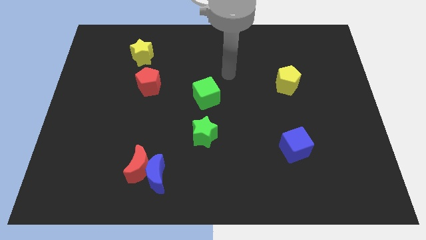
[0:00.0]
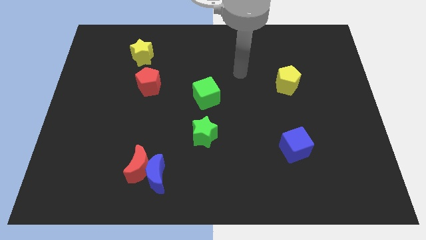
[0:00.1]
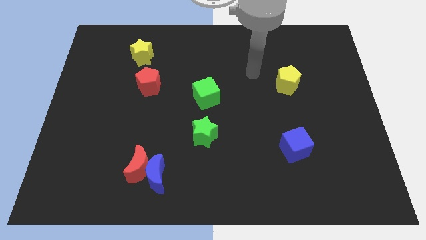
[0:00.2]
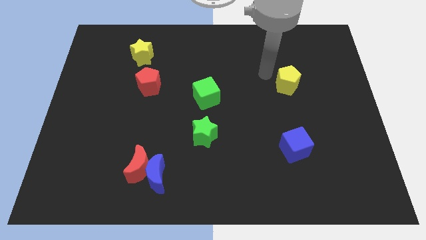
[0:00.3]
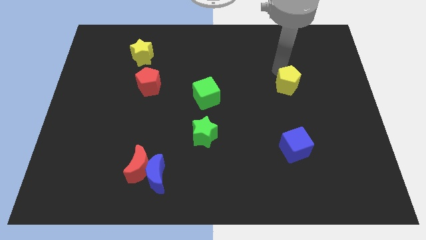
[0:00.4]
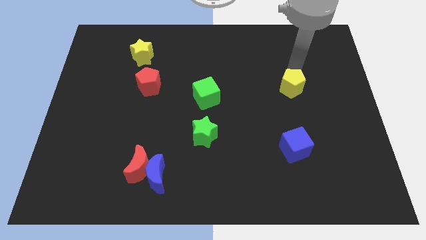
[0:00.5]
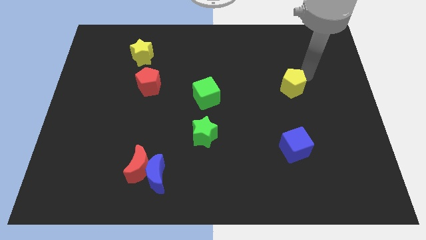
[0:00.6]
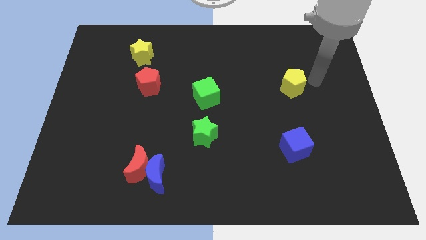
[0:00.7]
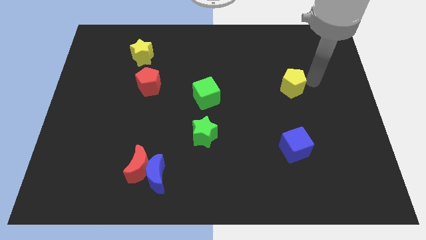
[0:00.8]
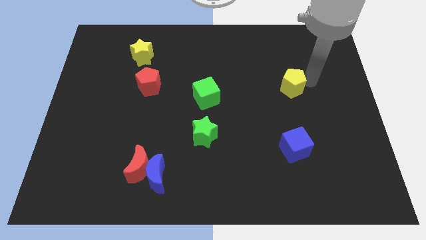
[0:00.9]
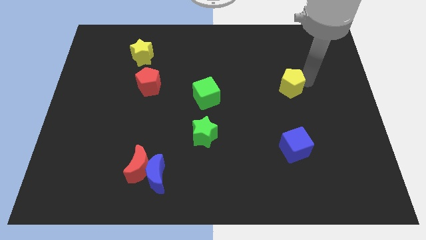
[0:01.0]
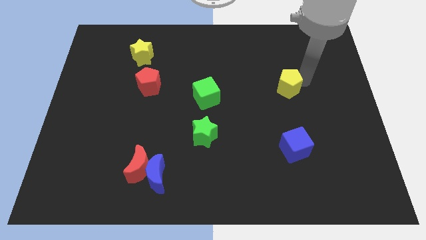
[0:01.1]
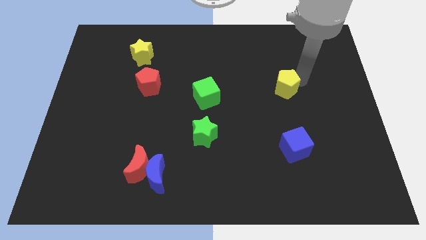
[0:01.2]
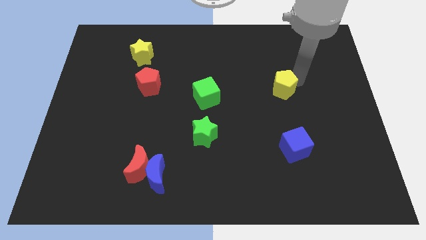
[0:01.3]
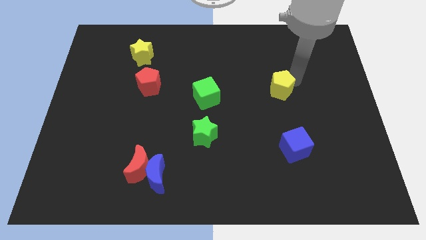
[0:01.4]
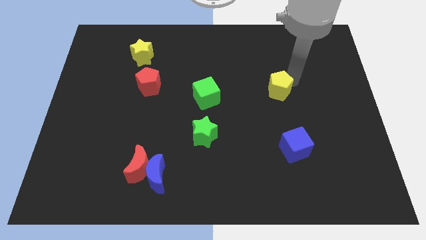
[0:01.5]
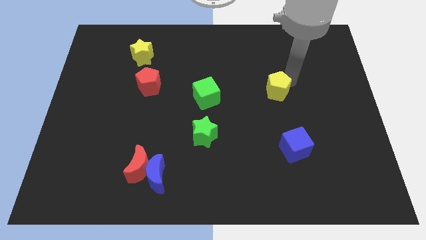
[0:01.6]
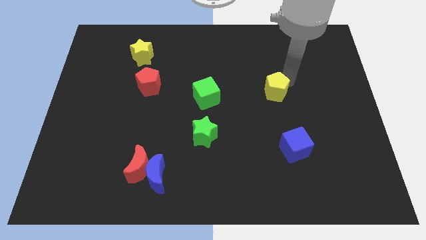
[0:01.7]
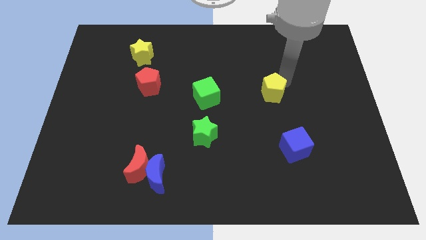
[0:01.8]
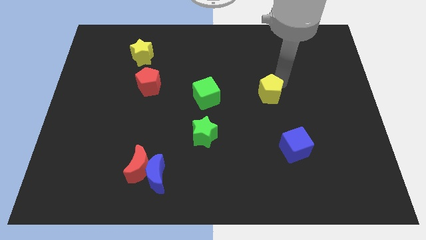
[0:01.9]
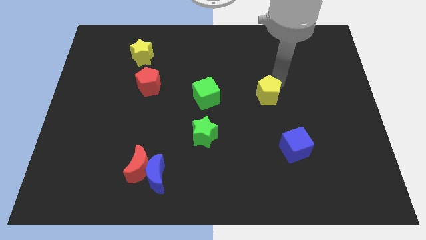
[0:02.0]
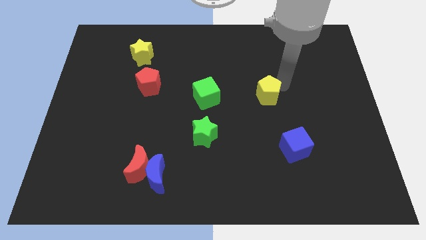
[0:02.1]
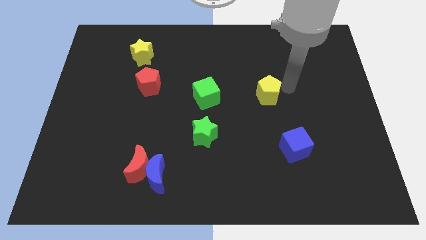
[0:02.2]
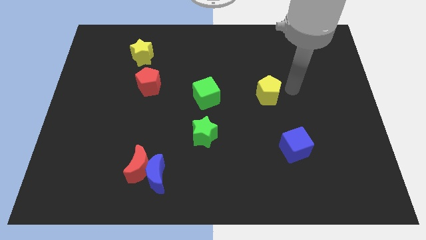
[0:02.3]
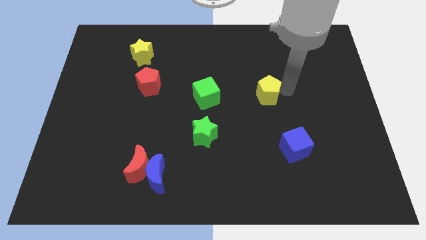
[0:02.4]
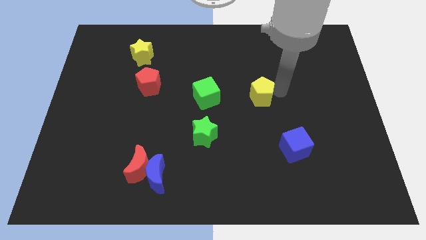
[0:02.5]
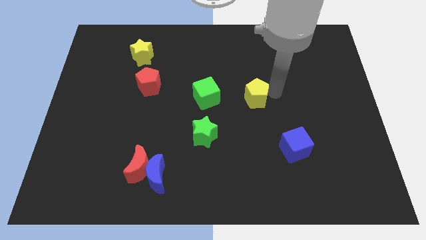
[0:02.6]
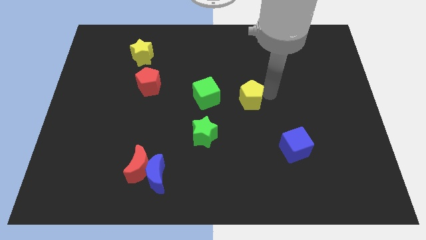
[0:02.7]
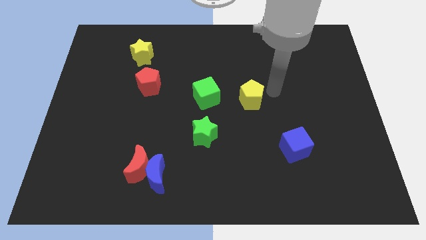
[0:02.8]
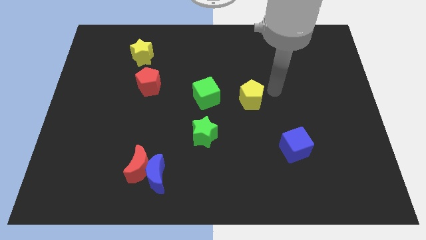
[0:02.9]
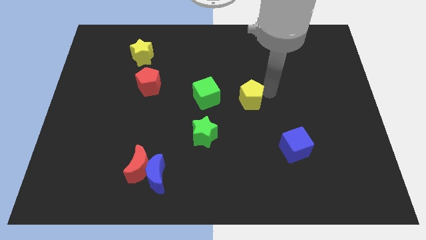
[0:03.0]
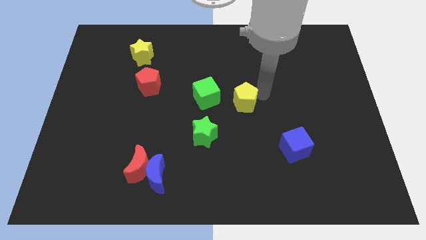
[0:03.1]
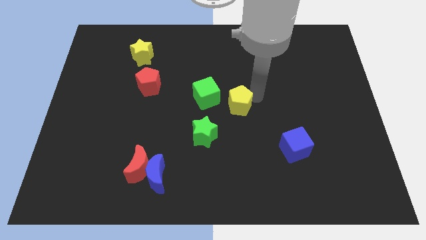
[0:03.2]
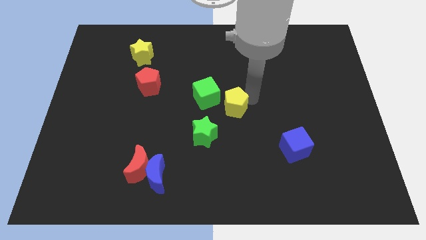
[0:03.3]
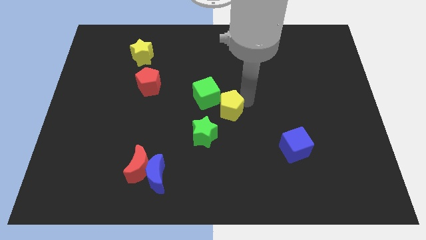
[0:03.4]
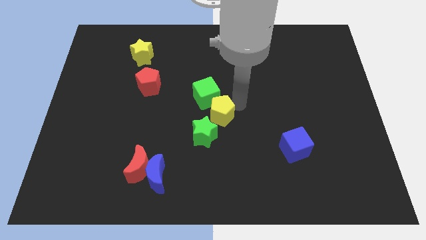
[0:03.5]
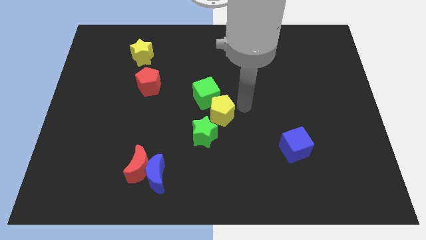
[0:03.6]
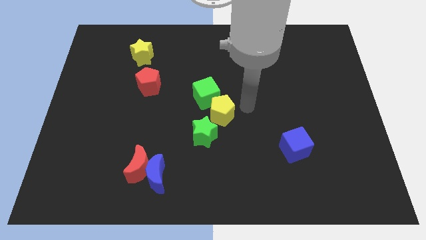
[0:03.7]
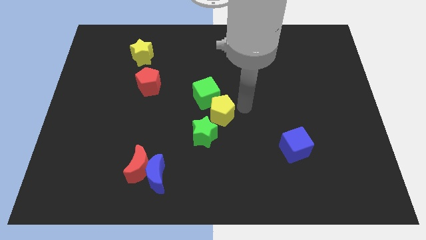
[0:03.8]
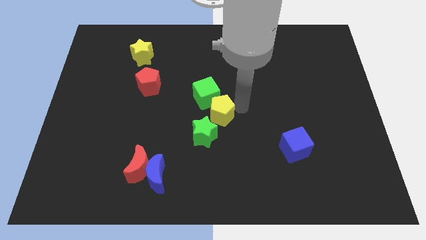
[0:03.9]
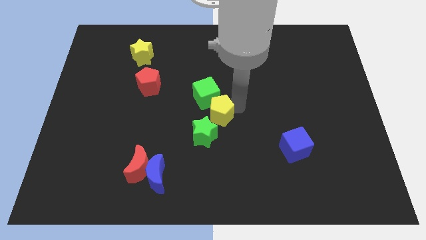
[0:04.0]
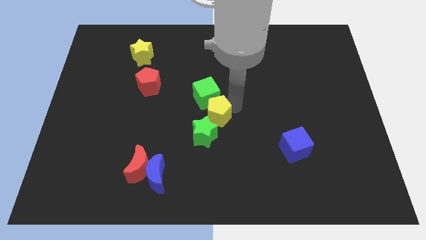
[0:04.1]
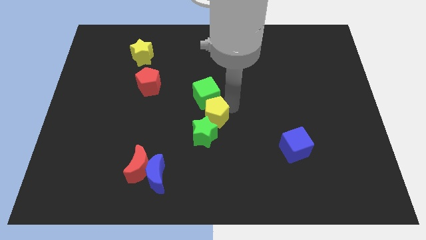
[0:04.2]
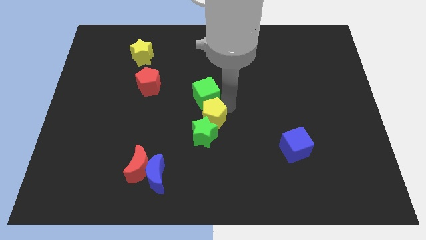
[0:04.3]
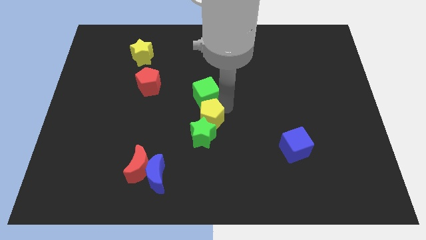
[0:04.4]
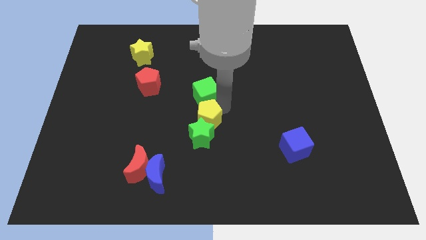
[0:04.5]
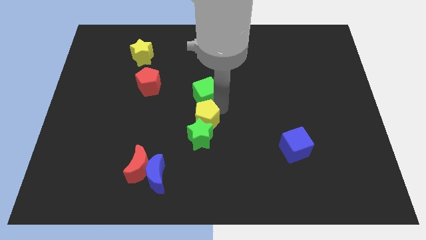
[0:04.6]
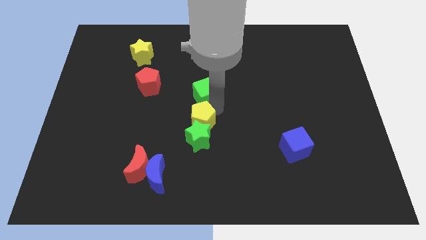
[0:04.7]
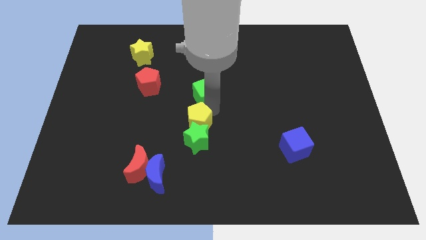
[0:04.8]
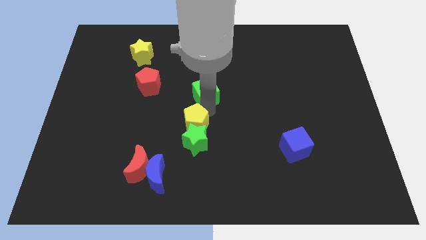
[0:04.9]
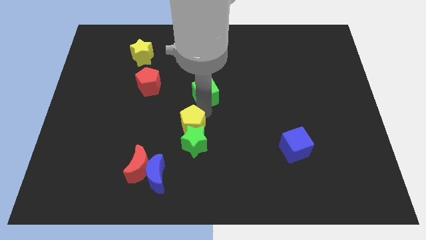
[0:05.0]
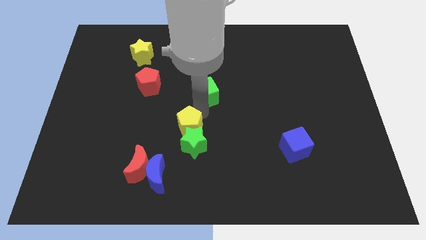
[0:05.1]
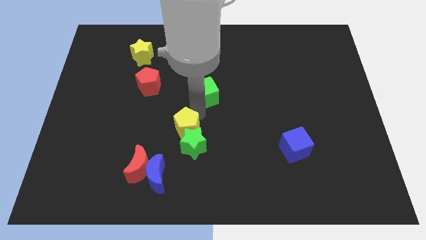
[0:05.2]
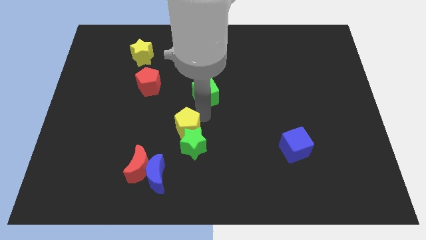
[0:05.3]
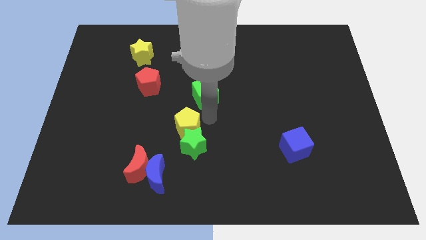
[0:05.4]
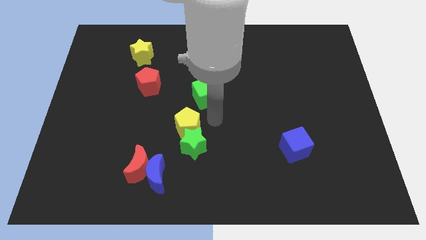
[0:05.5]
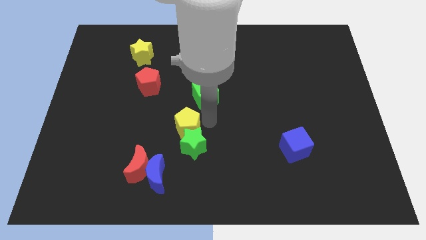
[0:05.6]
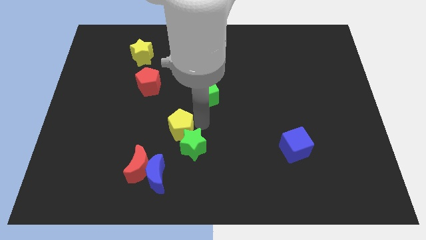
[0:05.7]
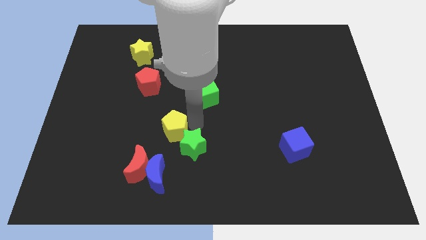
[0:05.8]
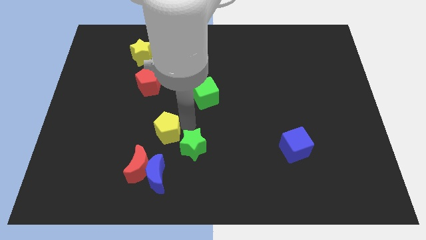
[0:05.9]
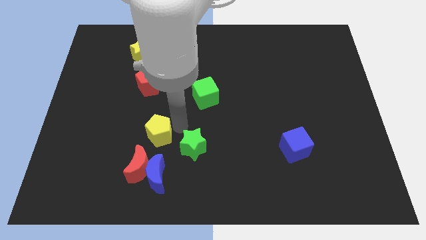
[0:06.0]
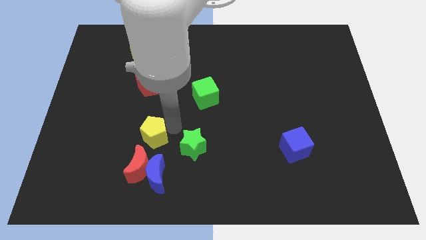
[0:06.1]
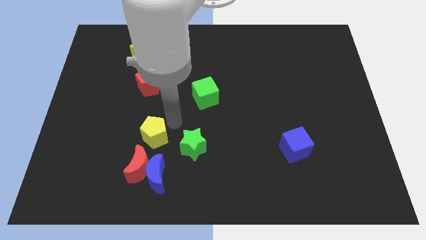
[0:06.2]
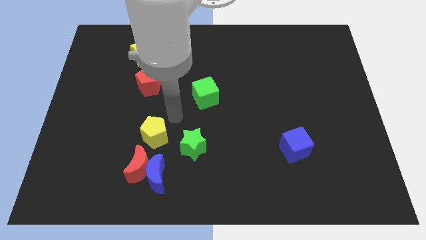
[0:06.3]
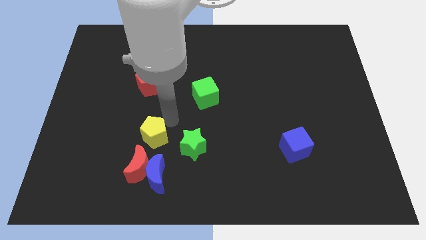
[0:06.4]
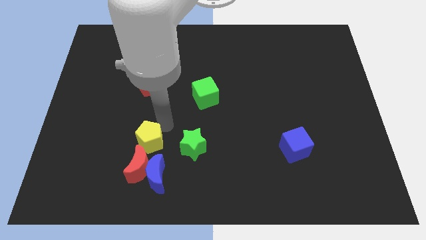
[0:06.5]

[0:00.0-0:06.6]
move the yellow pentagon diagonally up and to the left of the blue moon

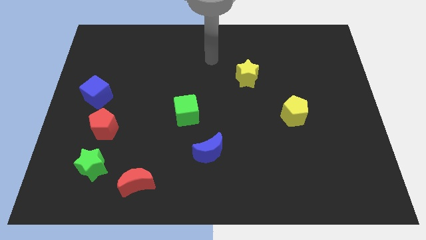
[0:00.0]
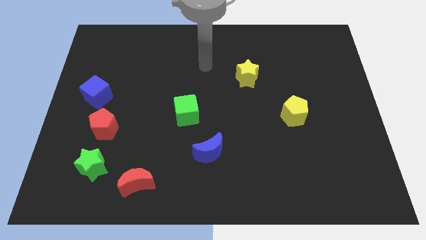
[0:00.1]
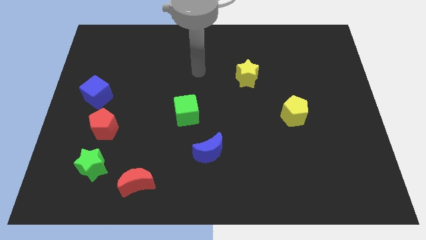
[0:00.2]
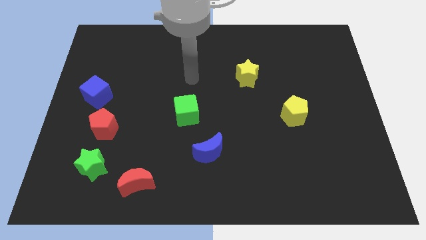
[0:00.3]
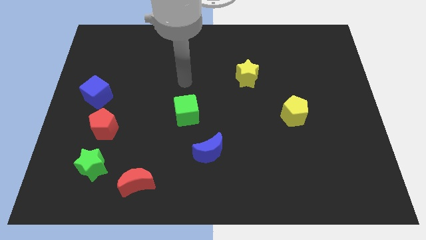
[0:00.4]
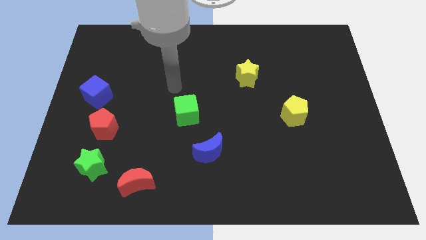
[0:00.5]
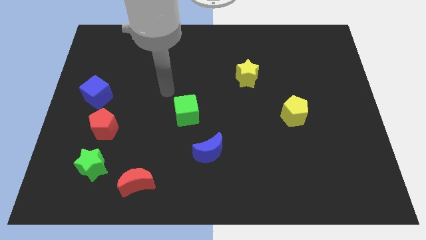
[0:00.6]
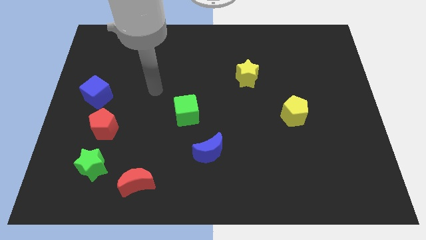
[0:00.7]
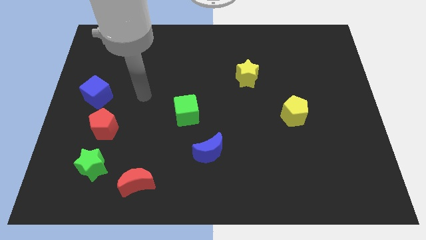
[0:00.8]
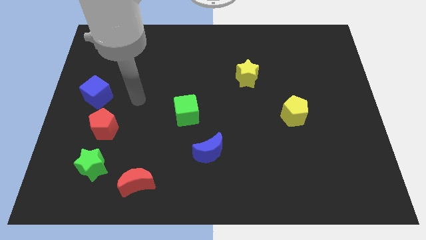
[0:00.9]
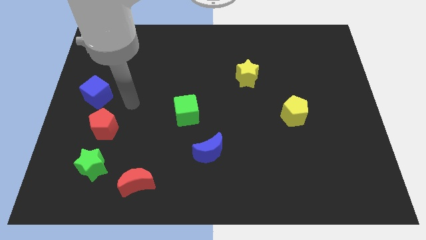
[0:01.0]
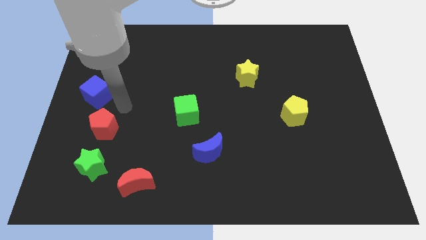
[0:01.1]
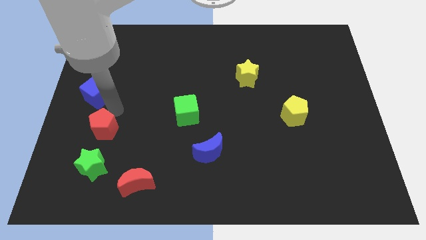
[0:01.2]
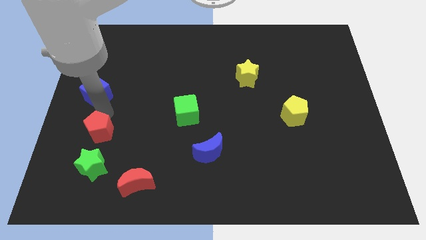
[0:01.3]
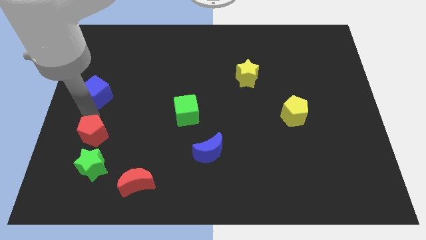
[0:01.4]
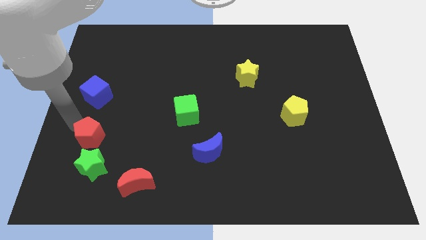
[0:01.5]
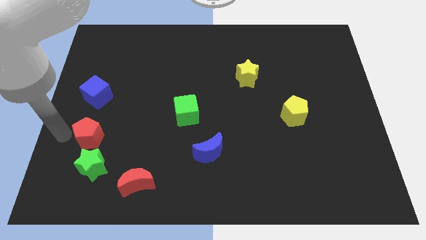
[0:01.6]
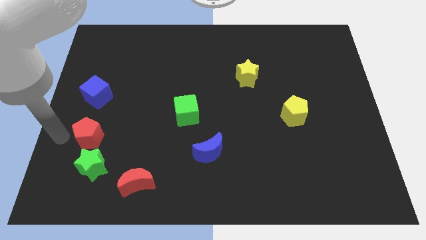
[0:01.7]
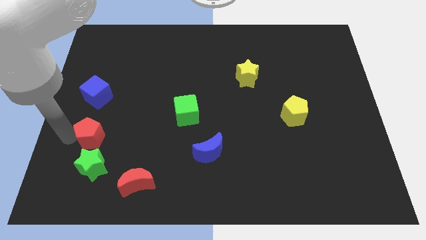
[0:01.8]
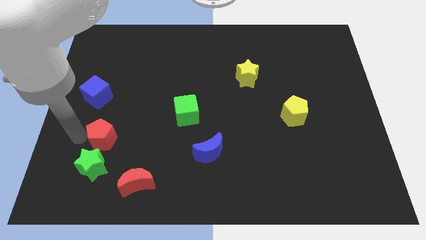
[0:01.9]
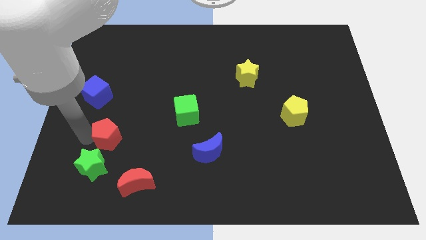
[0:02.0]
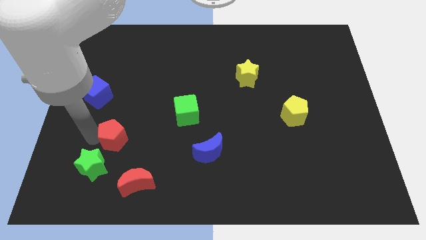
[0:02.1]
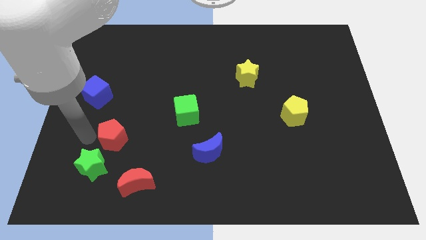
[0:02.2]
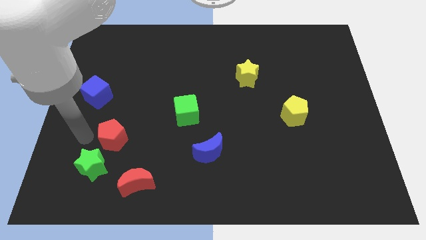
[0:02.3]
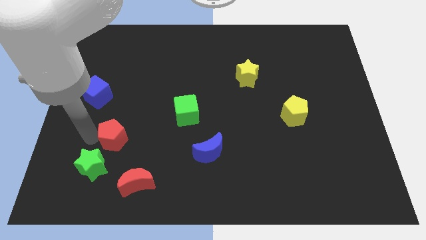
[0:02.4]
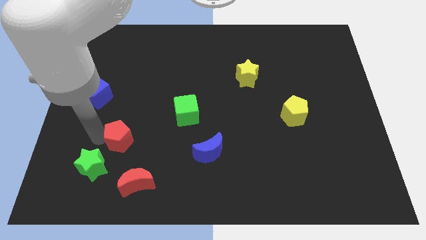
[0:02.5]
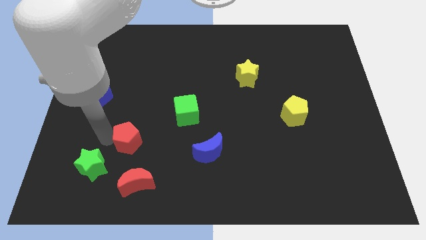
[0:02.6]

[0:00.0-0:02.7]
push the red pentagon above the red moon
